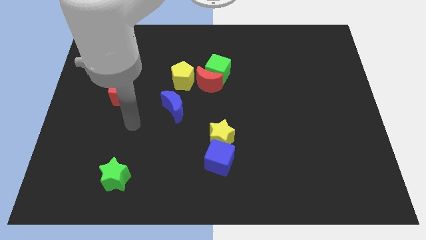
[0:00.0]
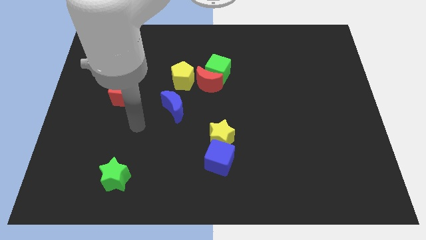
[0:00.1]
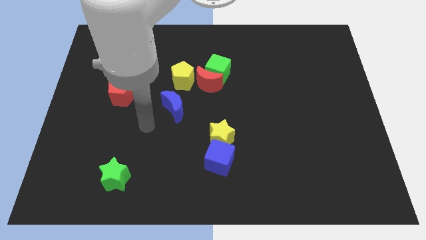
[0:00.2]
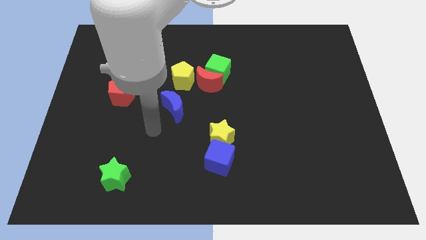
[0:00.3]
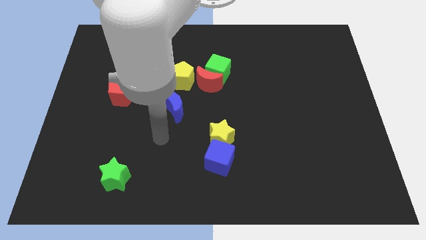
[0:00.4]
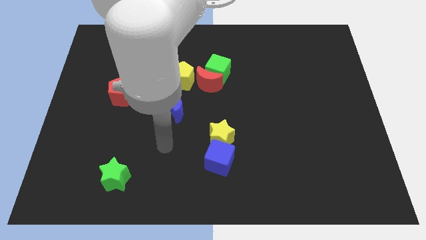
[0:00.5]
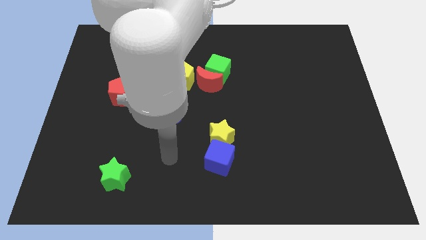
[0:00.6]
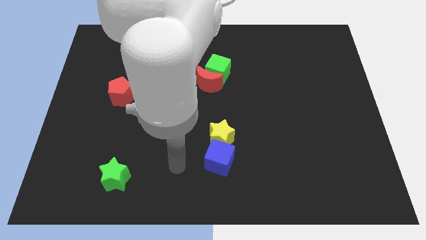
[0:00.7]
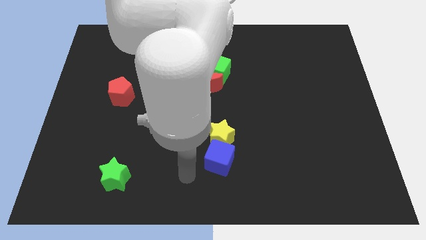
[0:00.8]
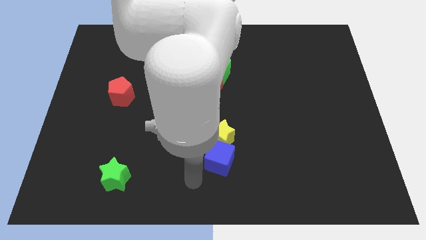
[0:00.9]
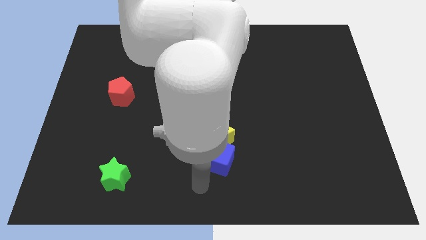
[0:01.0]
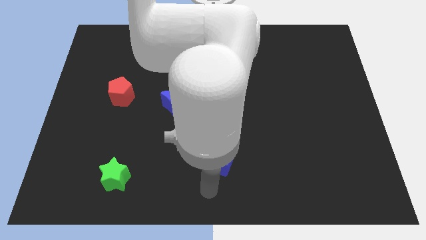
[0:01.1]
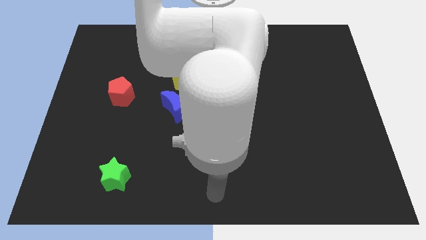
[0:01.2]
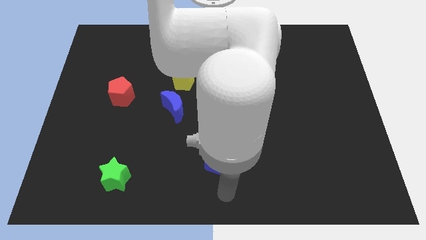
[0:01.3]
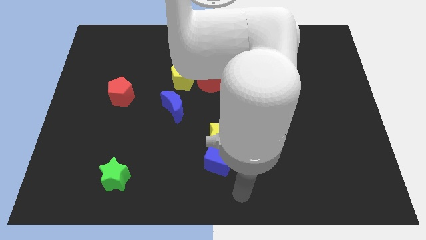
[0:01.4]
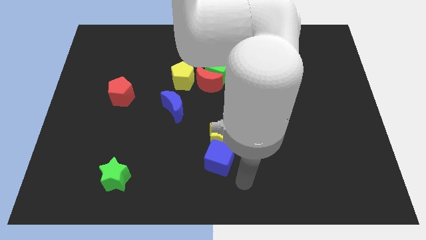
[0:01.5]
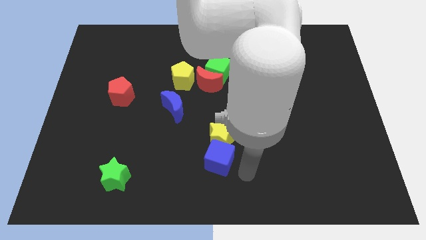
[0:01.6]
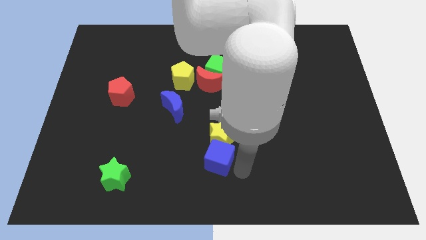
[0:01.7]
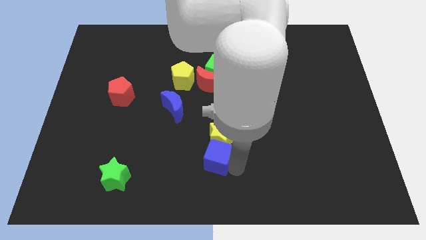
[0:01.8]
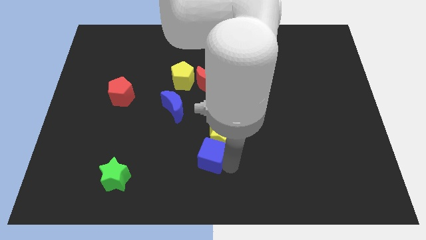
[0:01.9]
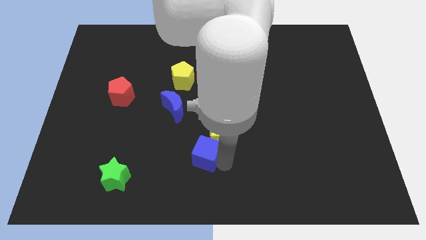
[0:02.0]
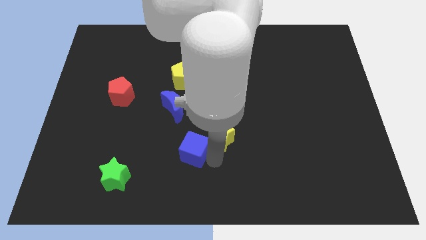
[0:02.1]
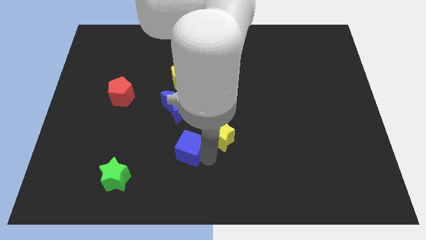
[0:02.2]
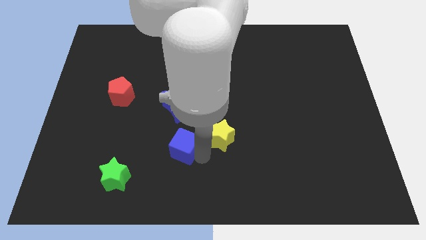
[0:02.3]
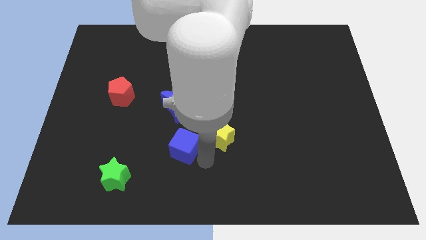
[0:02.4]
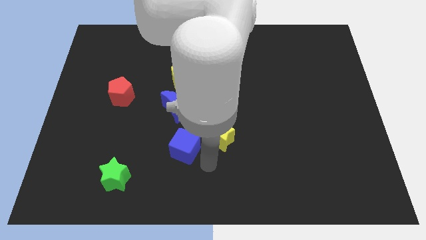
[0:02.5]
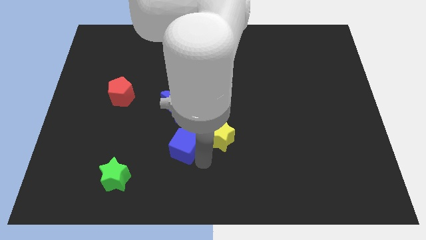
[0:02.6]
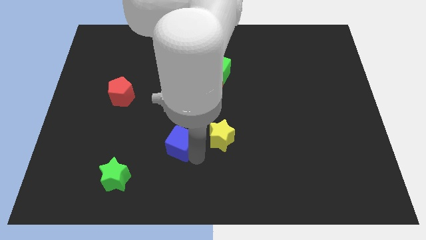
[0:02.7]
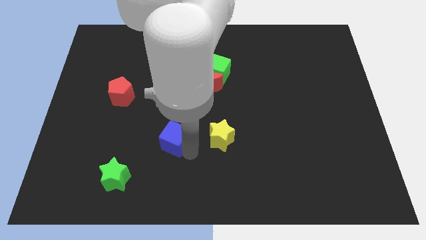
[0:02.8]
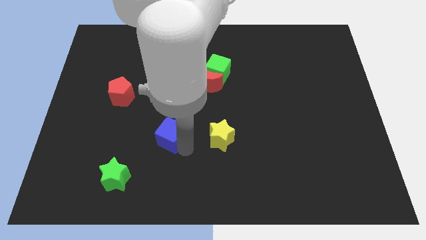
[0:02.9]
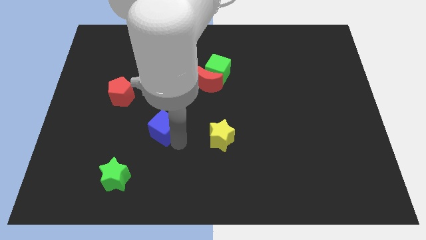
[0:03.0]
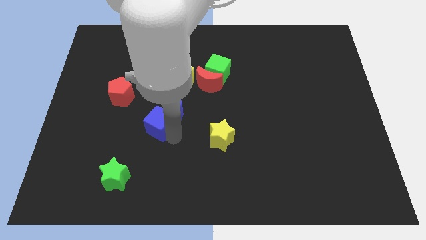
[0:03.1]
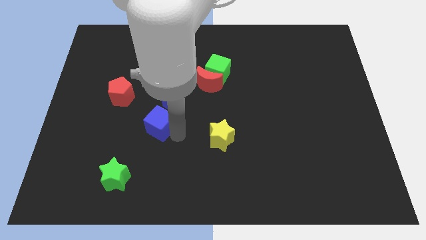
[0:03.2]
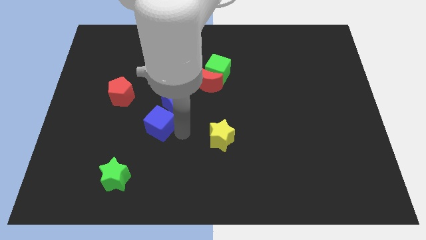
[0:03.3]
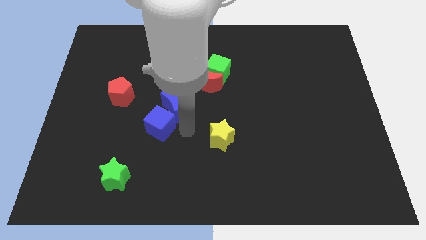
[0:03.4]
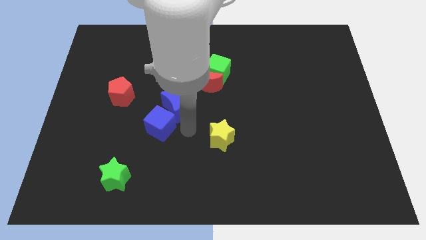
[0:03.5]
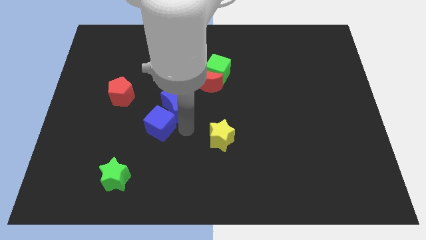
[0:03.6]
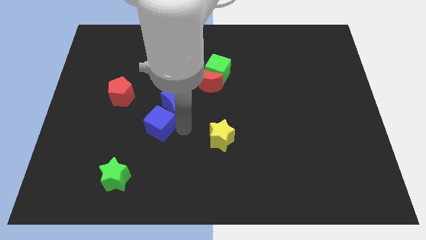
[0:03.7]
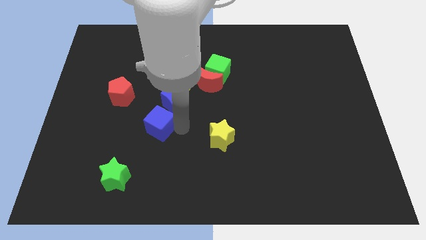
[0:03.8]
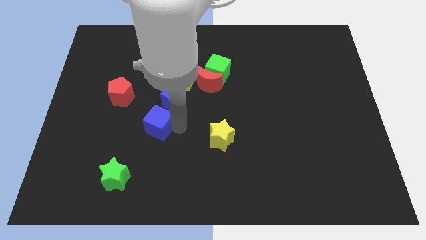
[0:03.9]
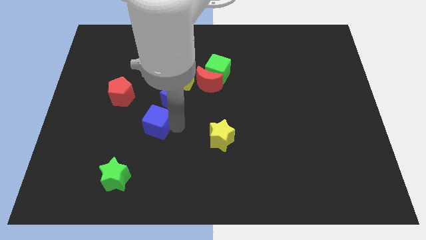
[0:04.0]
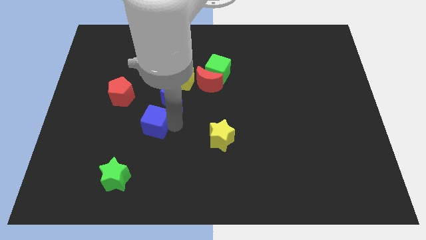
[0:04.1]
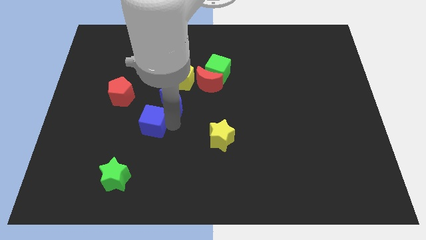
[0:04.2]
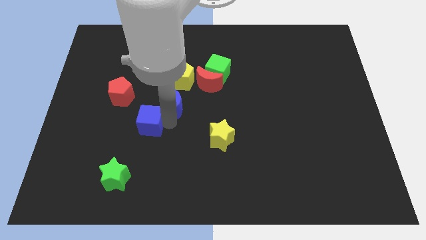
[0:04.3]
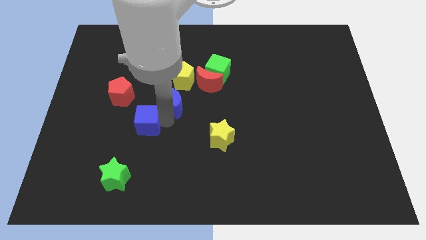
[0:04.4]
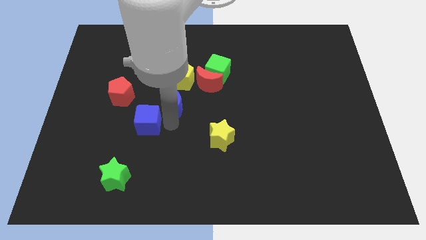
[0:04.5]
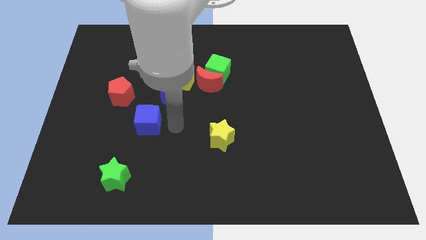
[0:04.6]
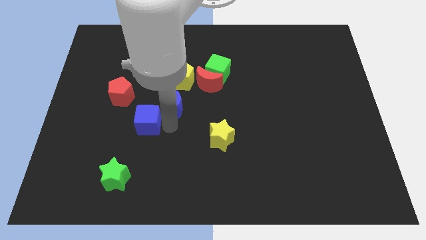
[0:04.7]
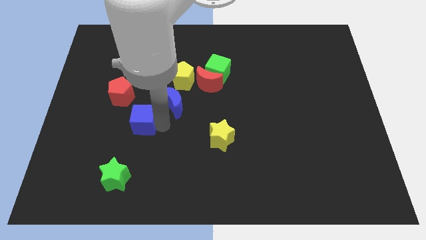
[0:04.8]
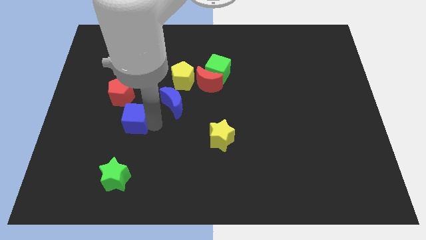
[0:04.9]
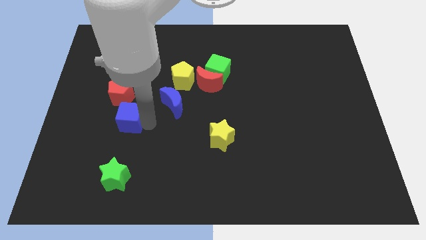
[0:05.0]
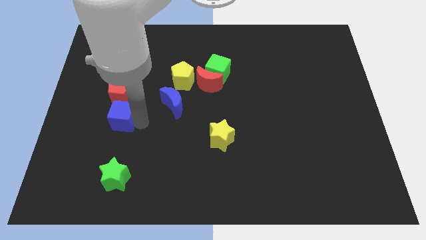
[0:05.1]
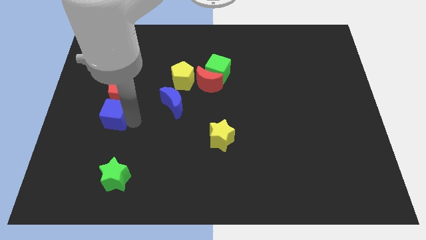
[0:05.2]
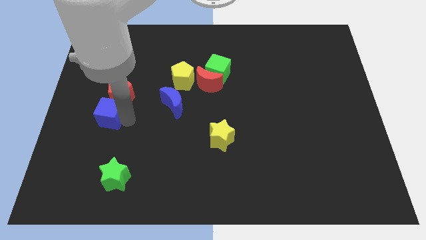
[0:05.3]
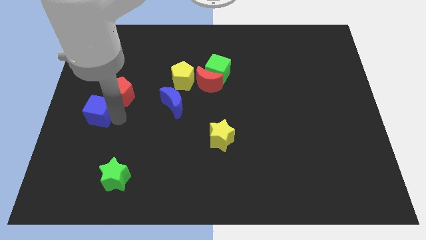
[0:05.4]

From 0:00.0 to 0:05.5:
put the blue cube to the center left

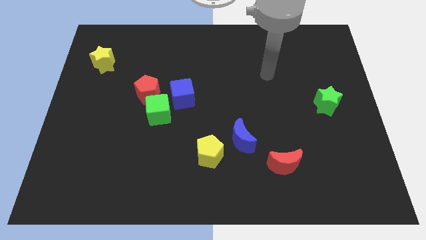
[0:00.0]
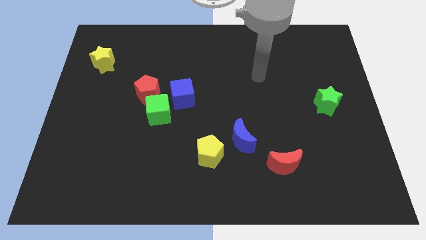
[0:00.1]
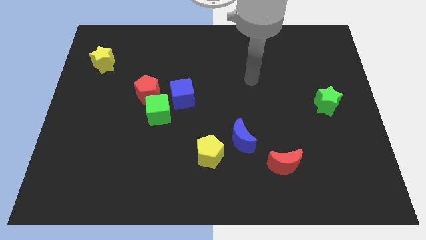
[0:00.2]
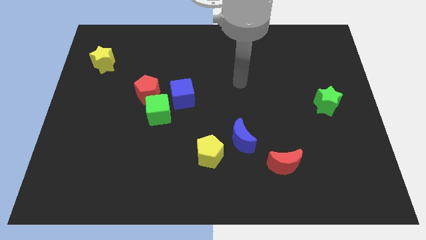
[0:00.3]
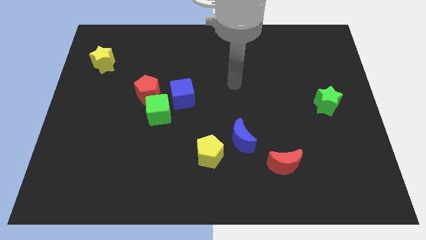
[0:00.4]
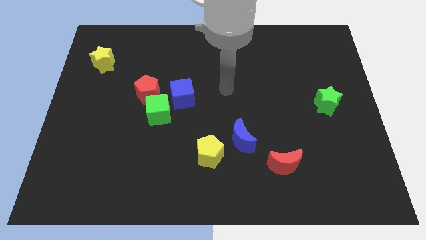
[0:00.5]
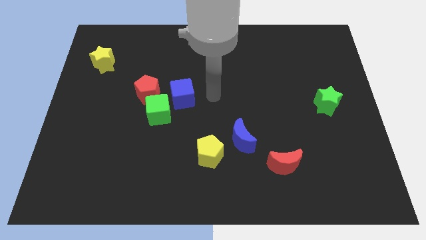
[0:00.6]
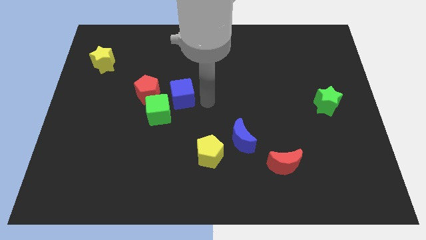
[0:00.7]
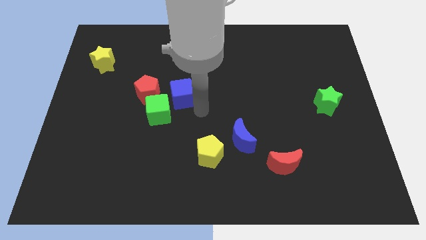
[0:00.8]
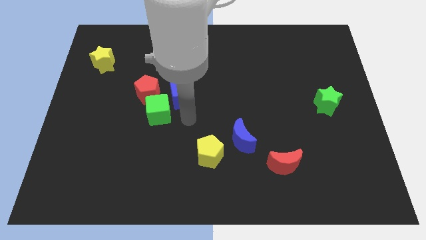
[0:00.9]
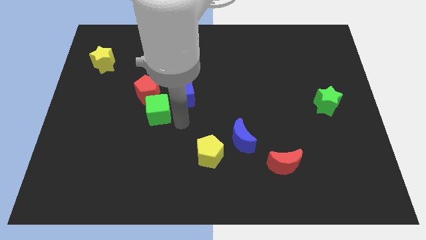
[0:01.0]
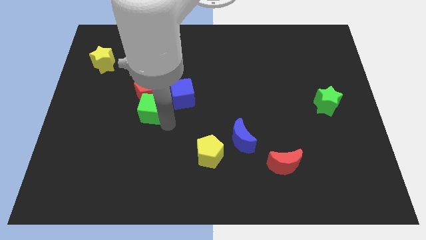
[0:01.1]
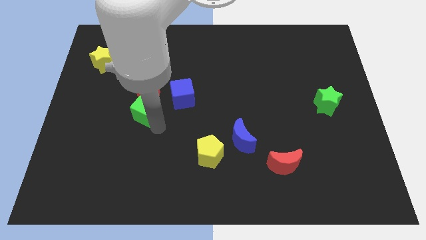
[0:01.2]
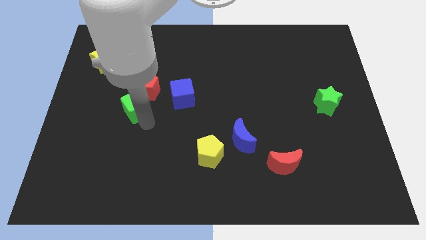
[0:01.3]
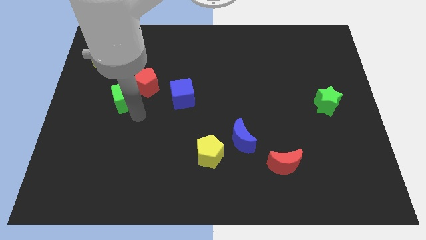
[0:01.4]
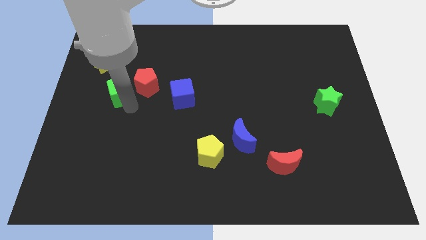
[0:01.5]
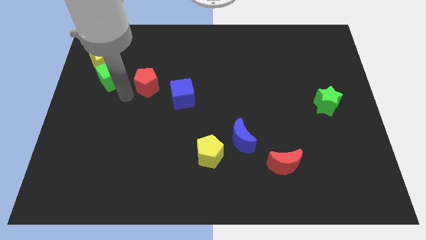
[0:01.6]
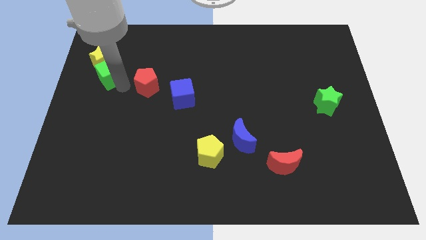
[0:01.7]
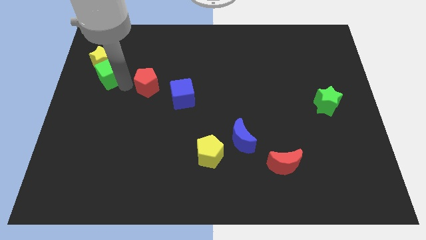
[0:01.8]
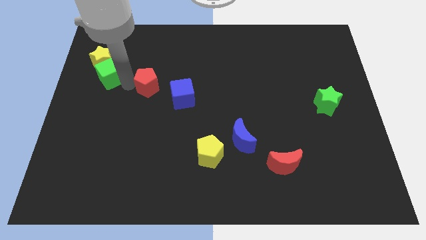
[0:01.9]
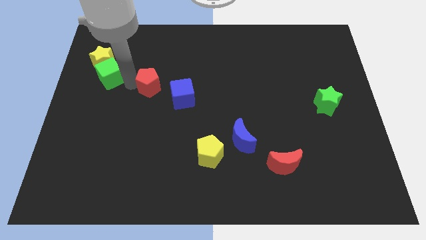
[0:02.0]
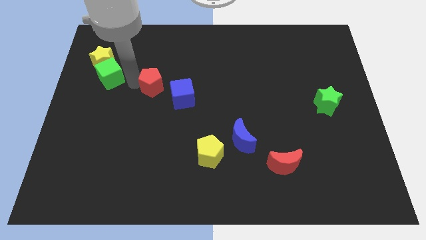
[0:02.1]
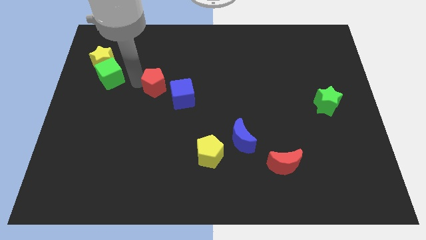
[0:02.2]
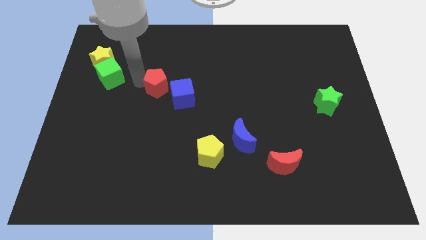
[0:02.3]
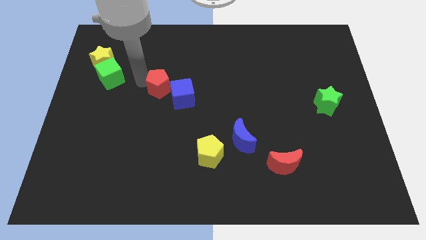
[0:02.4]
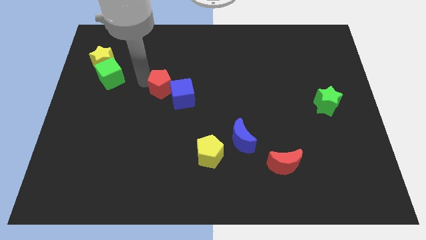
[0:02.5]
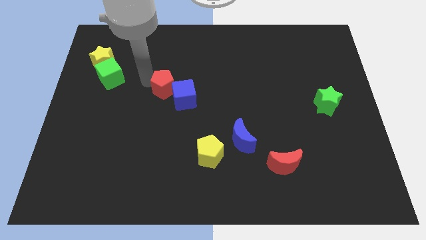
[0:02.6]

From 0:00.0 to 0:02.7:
put the red pentagon to the center
